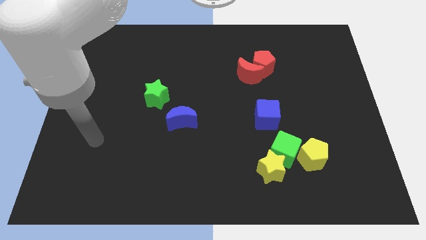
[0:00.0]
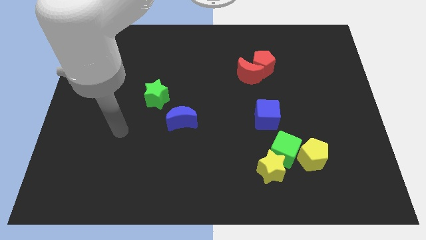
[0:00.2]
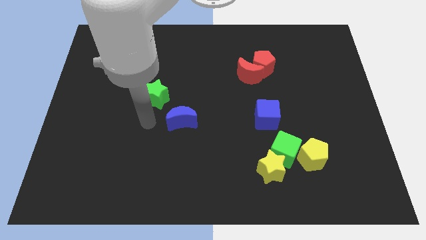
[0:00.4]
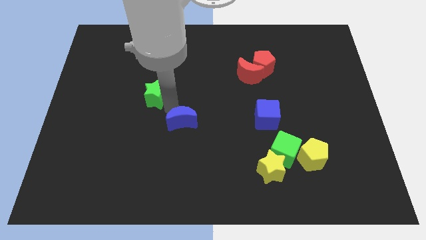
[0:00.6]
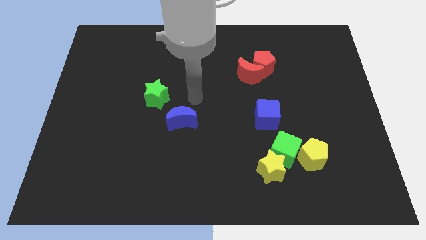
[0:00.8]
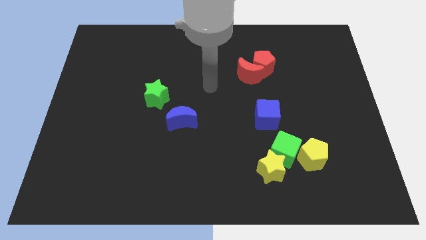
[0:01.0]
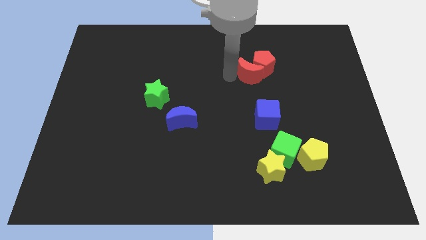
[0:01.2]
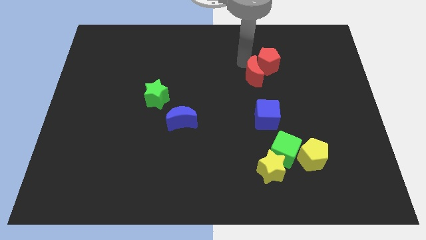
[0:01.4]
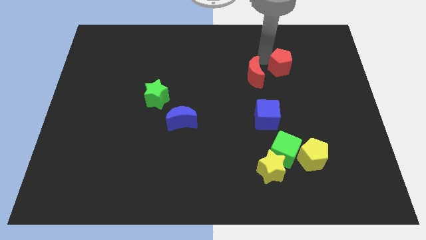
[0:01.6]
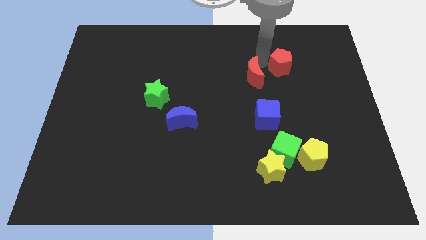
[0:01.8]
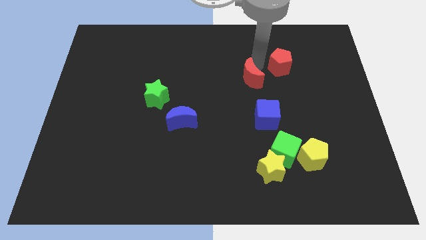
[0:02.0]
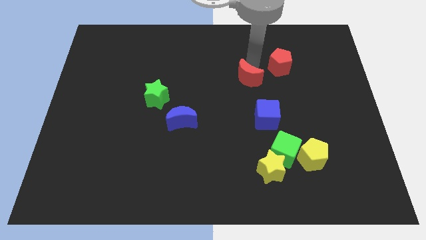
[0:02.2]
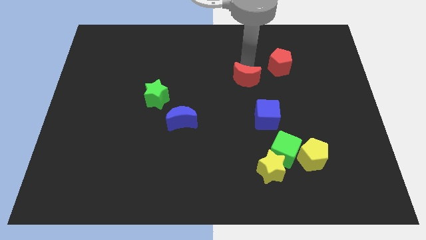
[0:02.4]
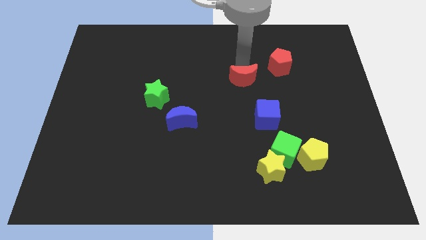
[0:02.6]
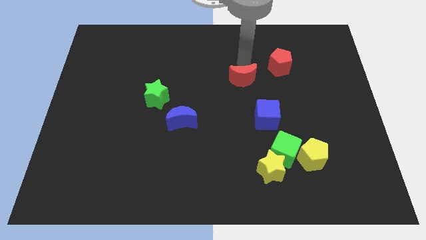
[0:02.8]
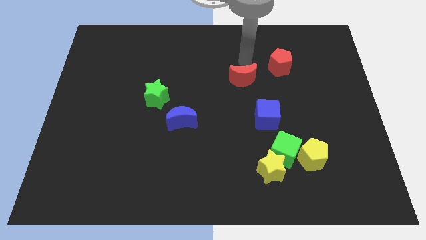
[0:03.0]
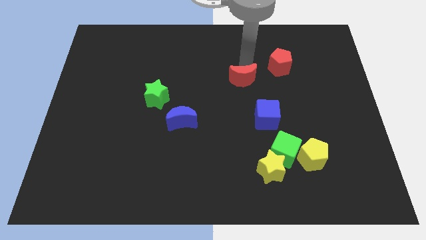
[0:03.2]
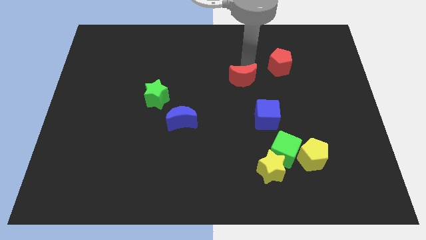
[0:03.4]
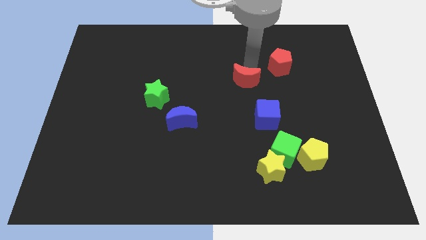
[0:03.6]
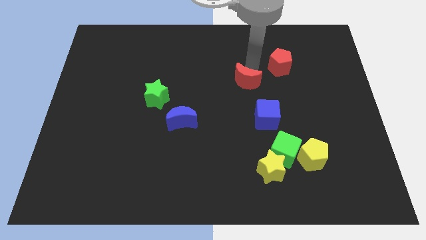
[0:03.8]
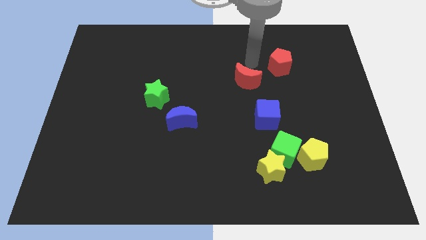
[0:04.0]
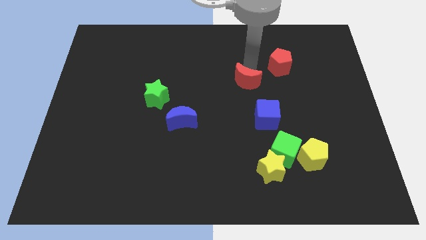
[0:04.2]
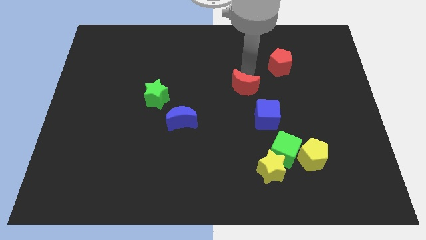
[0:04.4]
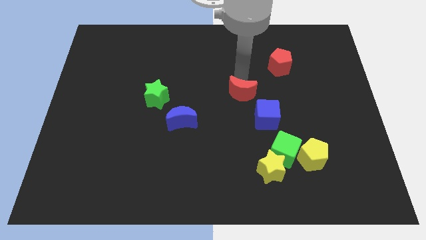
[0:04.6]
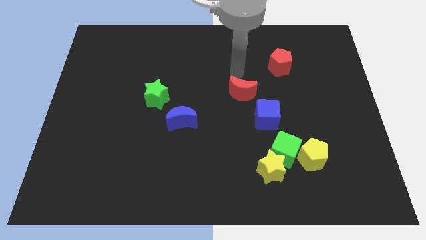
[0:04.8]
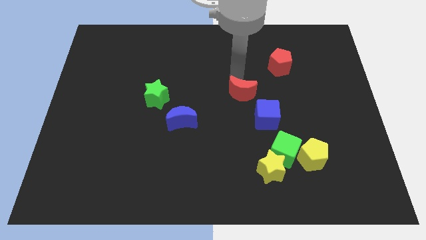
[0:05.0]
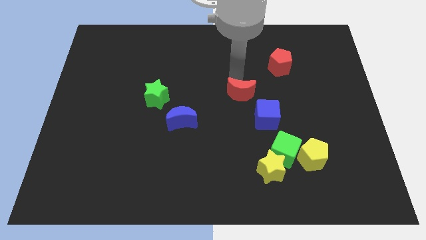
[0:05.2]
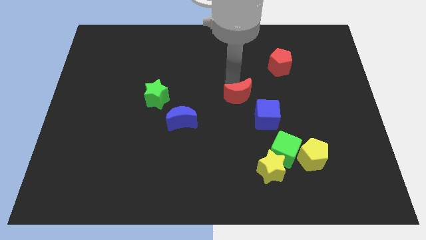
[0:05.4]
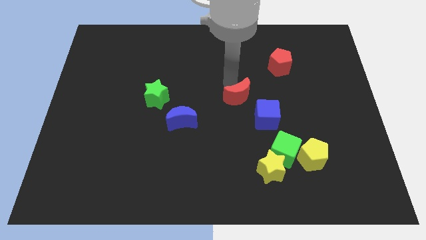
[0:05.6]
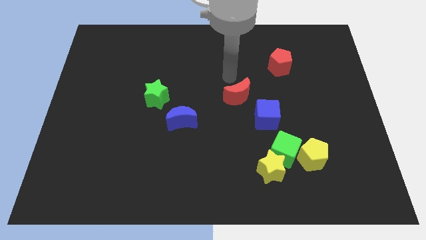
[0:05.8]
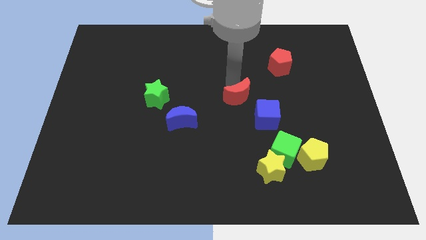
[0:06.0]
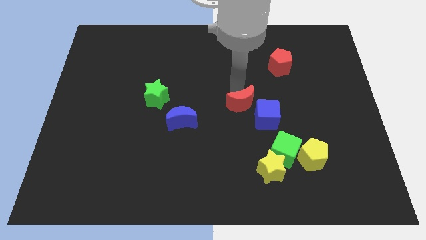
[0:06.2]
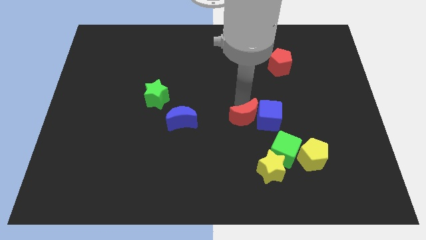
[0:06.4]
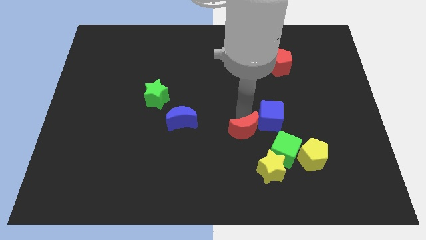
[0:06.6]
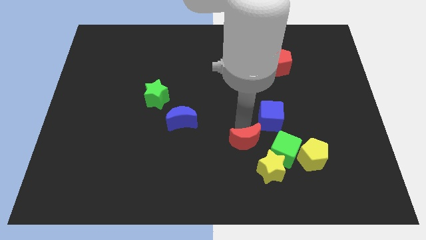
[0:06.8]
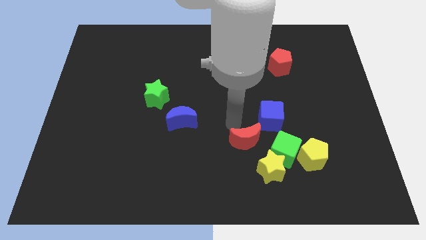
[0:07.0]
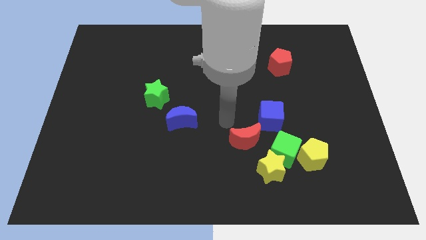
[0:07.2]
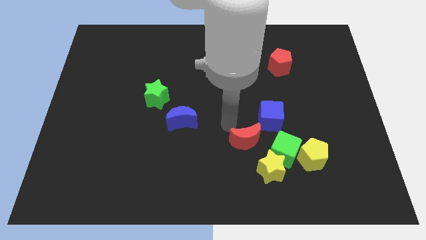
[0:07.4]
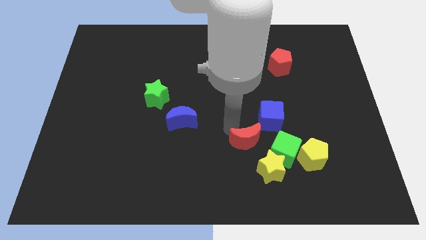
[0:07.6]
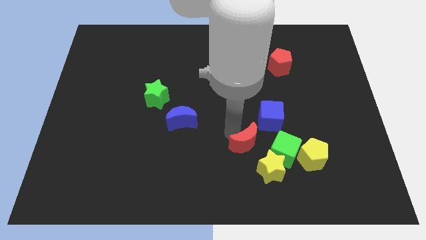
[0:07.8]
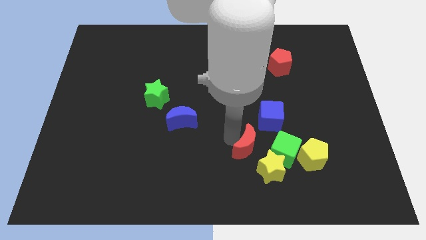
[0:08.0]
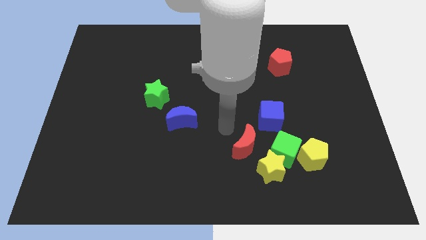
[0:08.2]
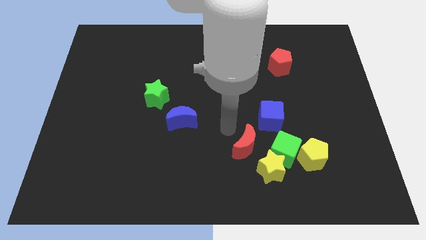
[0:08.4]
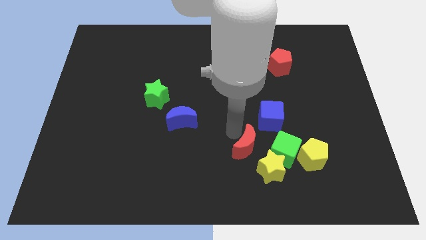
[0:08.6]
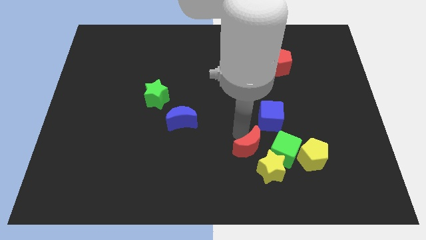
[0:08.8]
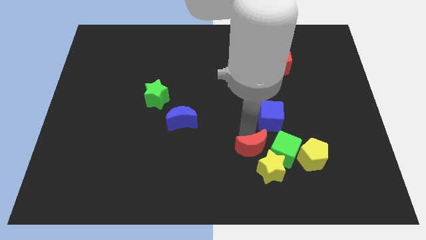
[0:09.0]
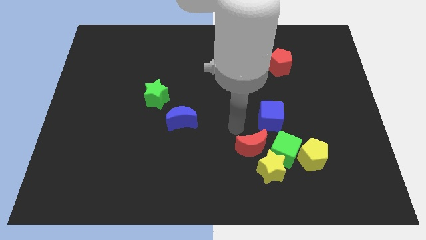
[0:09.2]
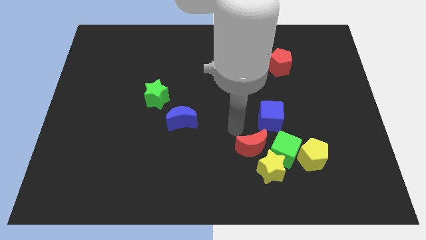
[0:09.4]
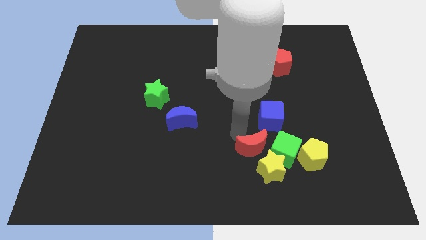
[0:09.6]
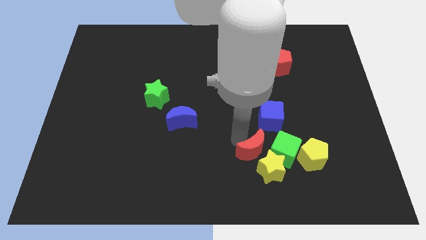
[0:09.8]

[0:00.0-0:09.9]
slide the red moon to the yellow star

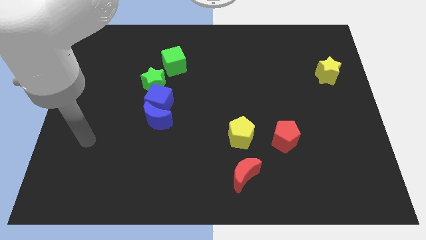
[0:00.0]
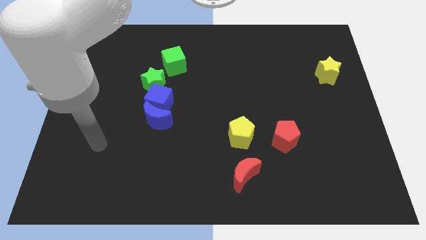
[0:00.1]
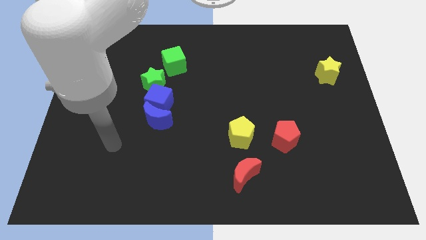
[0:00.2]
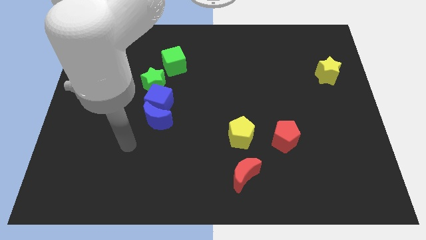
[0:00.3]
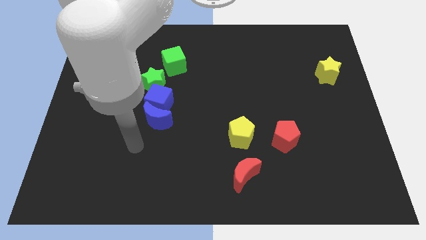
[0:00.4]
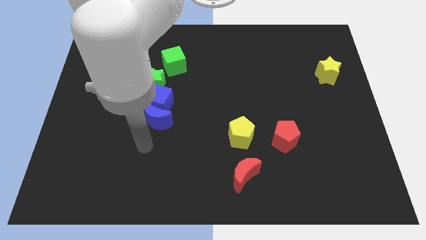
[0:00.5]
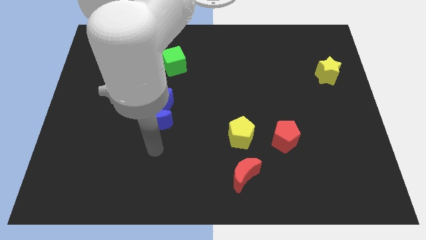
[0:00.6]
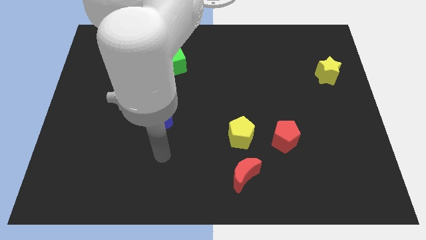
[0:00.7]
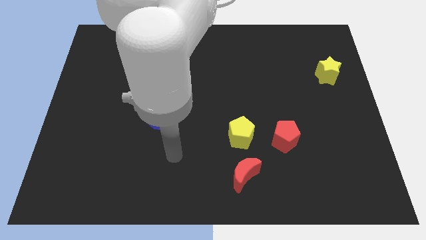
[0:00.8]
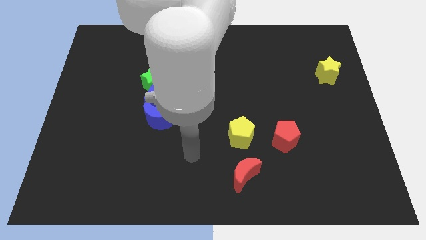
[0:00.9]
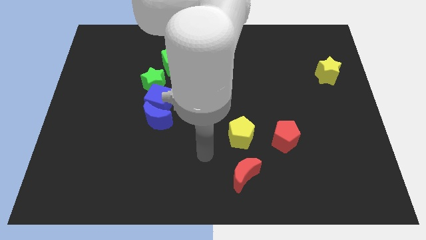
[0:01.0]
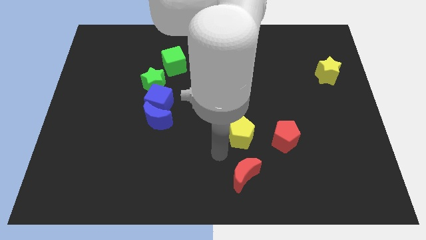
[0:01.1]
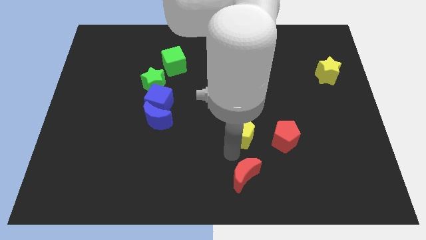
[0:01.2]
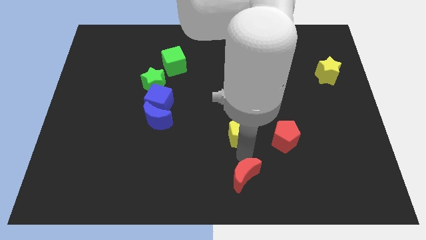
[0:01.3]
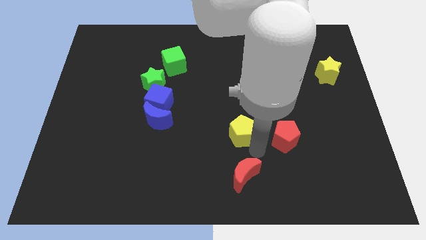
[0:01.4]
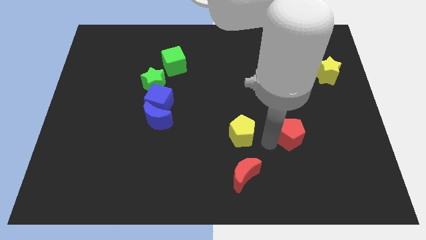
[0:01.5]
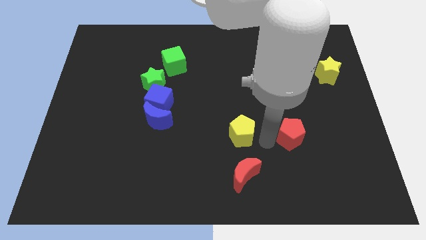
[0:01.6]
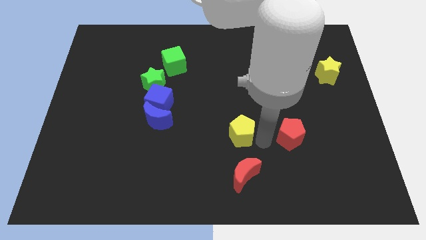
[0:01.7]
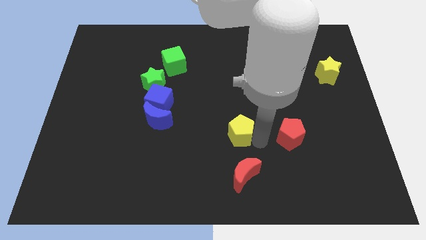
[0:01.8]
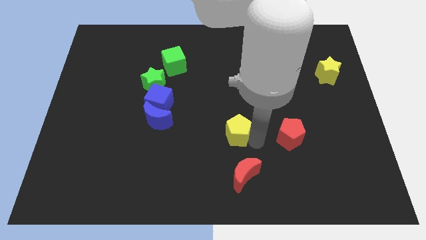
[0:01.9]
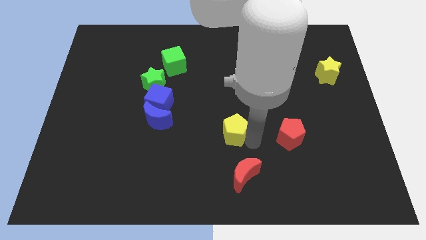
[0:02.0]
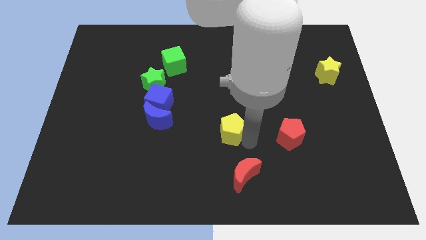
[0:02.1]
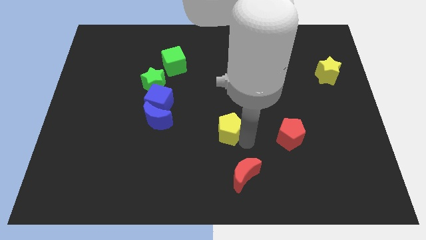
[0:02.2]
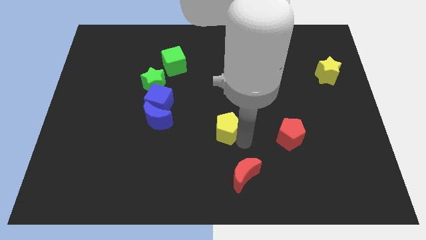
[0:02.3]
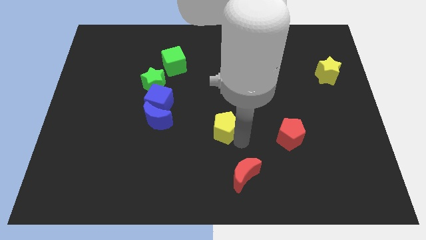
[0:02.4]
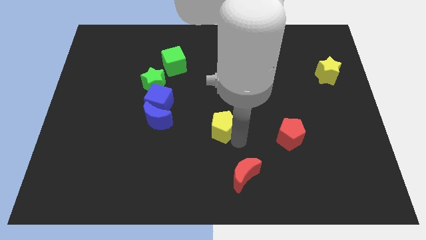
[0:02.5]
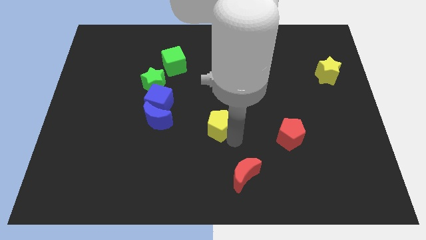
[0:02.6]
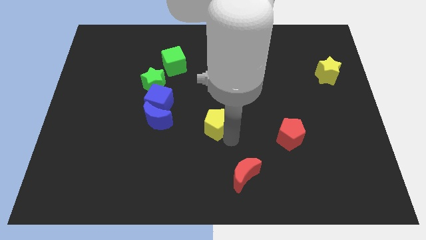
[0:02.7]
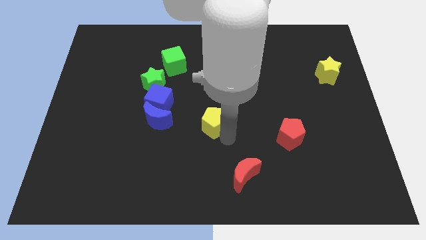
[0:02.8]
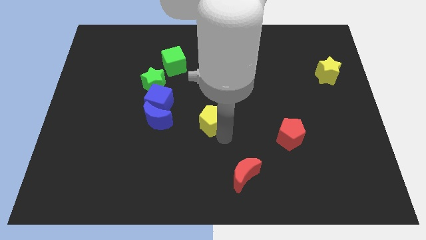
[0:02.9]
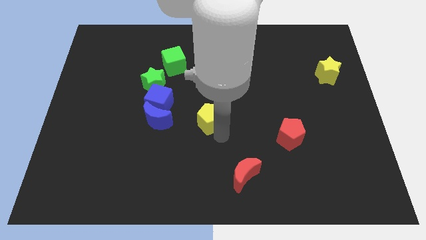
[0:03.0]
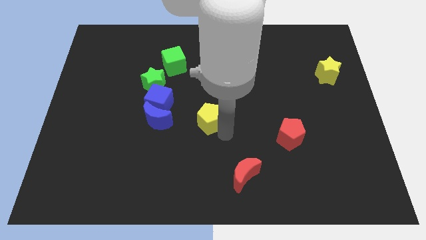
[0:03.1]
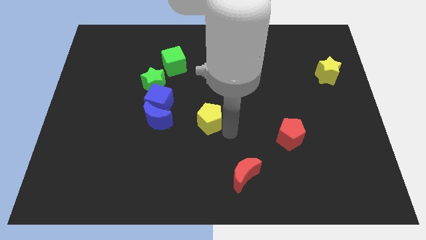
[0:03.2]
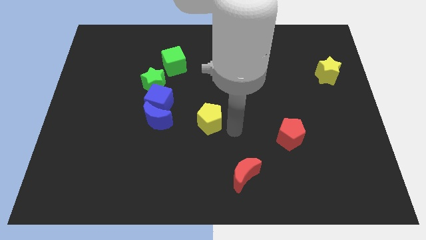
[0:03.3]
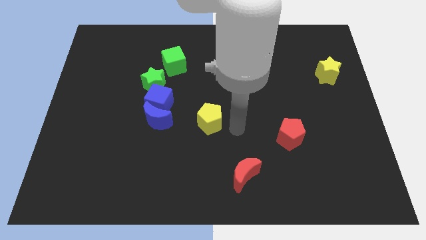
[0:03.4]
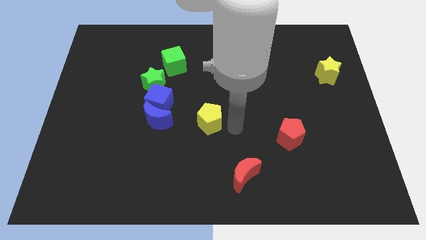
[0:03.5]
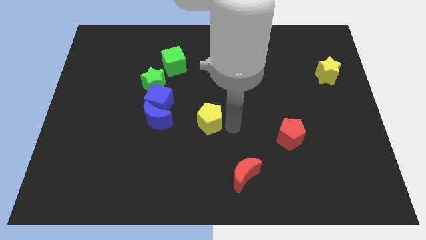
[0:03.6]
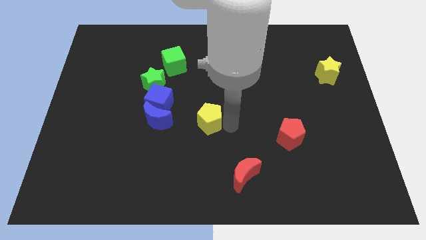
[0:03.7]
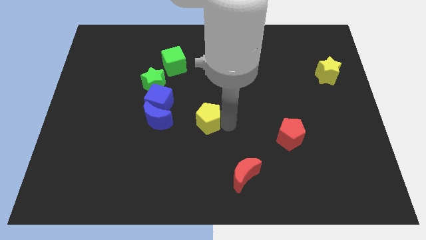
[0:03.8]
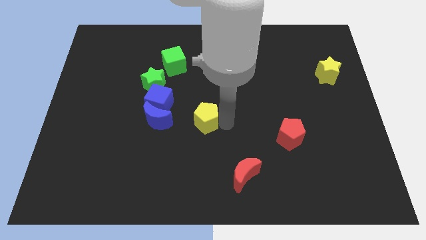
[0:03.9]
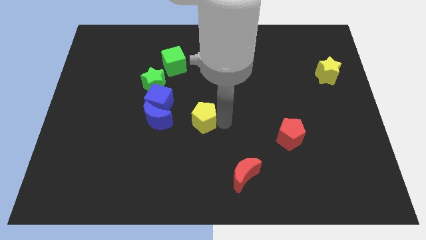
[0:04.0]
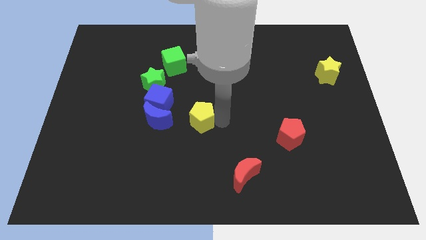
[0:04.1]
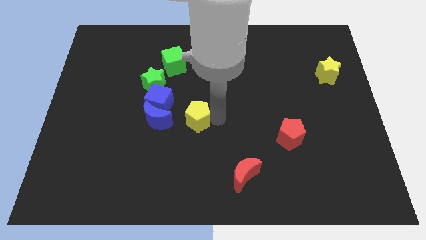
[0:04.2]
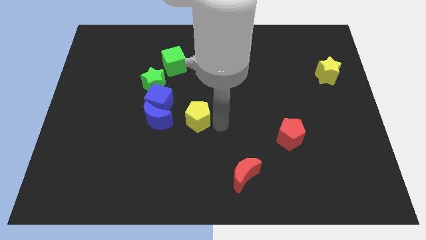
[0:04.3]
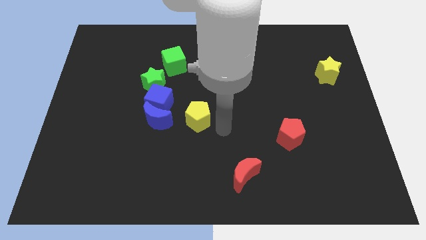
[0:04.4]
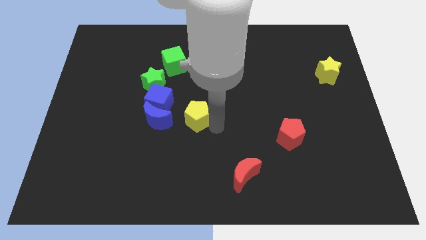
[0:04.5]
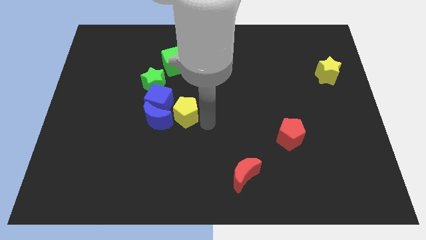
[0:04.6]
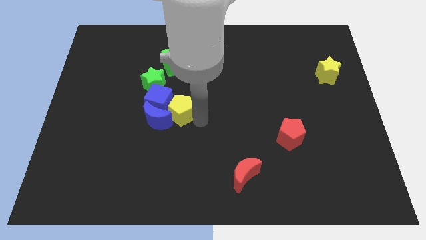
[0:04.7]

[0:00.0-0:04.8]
slide the yellow pentagon close to the blue cube
